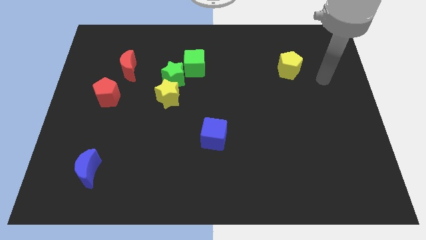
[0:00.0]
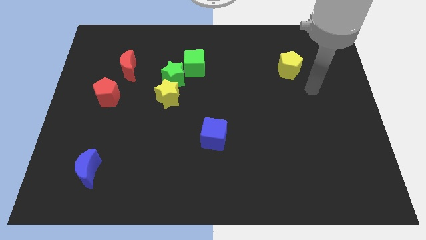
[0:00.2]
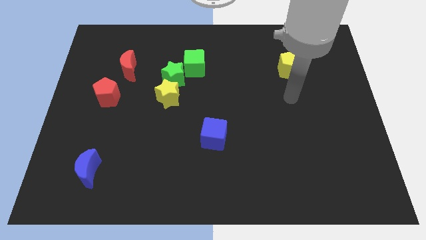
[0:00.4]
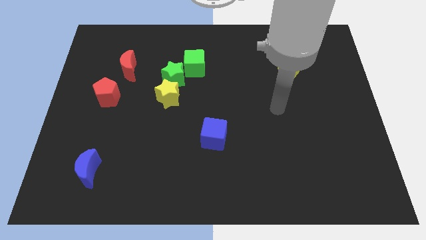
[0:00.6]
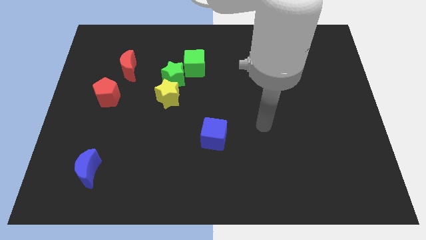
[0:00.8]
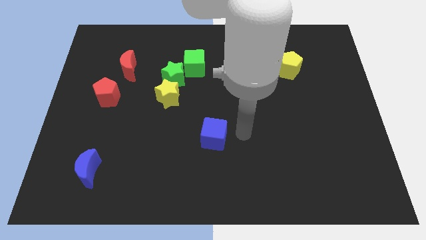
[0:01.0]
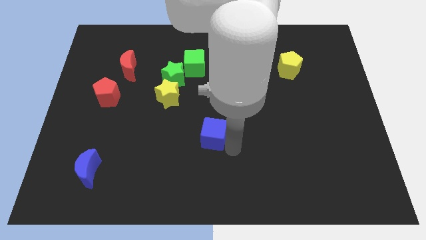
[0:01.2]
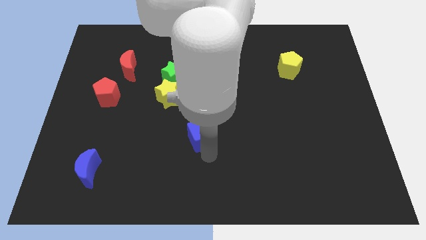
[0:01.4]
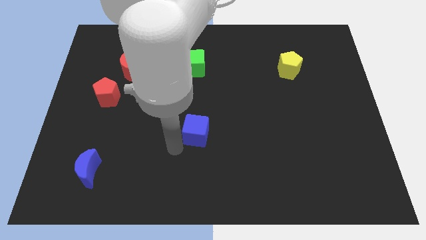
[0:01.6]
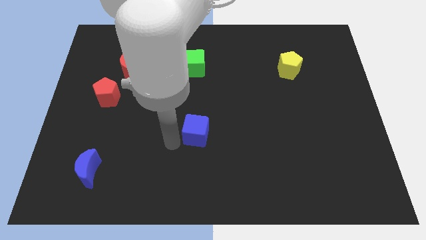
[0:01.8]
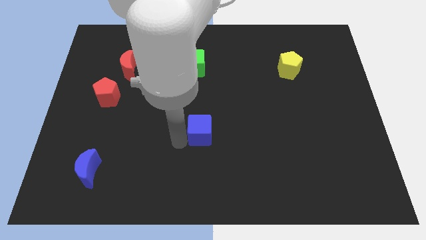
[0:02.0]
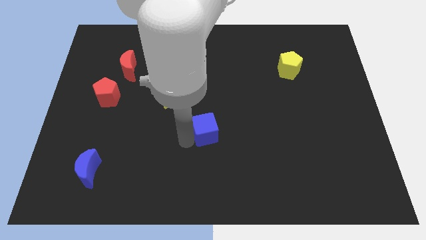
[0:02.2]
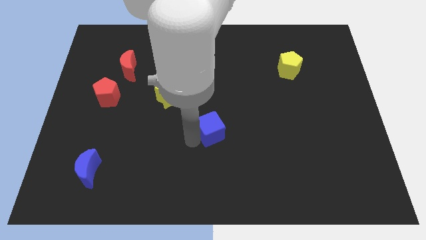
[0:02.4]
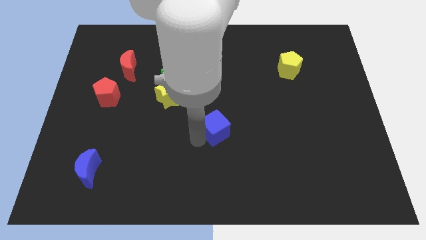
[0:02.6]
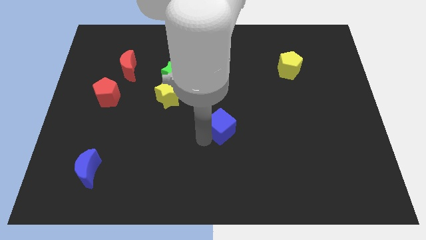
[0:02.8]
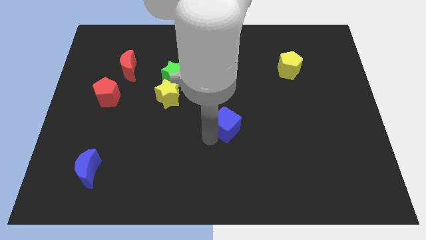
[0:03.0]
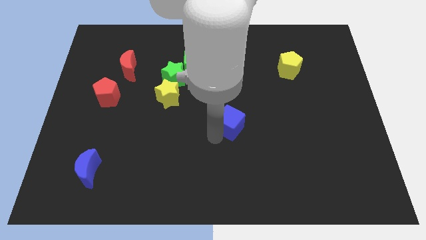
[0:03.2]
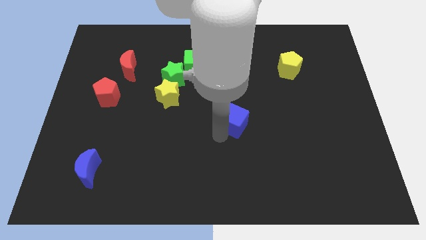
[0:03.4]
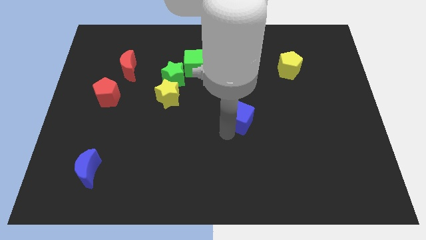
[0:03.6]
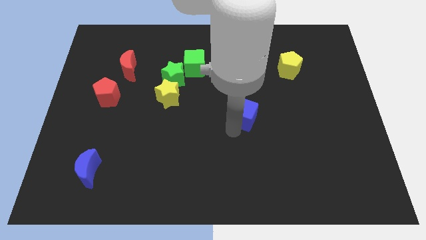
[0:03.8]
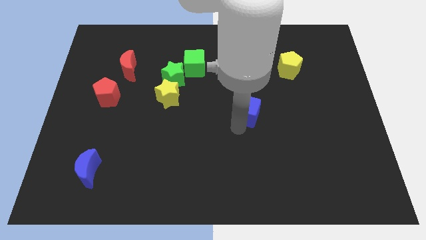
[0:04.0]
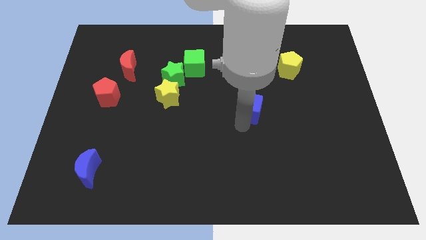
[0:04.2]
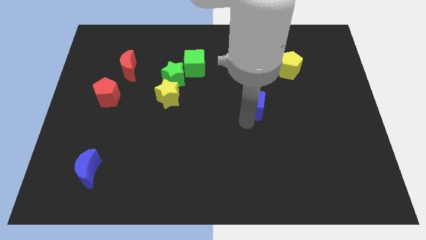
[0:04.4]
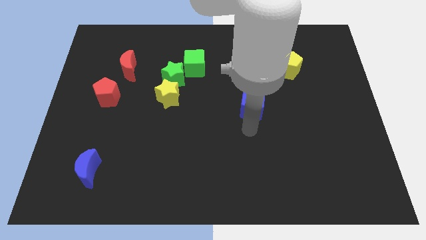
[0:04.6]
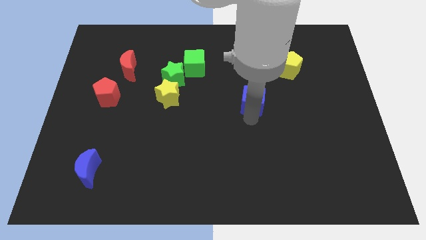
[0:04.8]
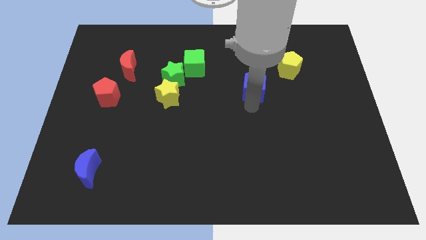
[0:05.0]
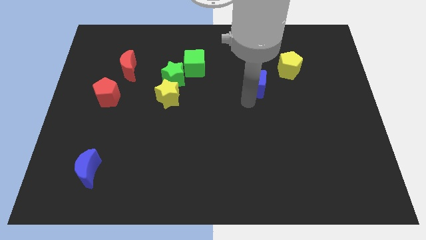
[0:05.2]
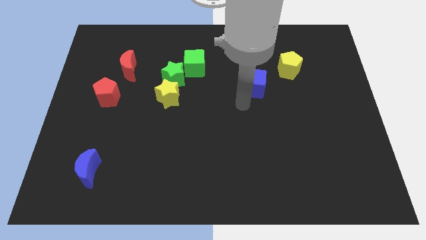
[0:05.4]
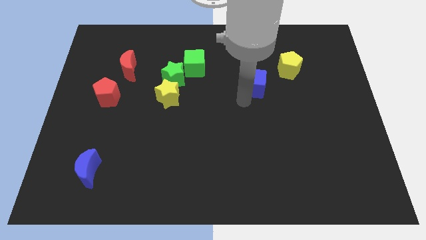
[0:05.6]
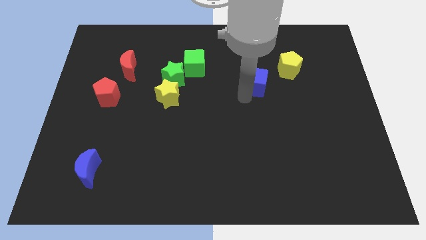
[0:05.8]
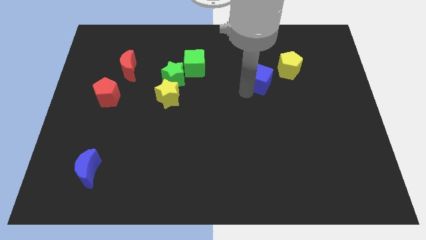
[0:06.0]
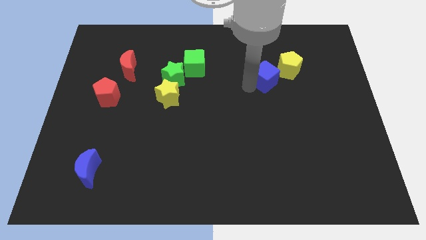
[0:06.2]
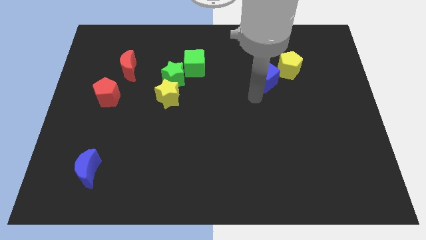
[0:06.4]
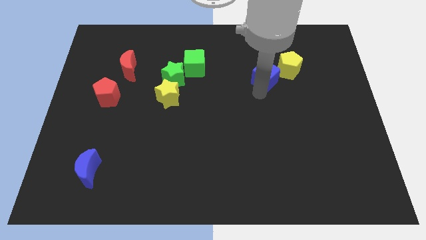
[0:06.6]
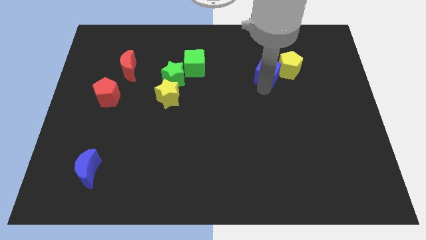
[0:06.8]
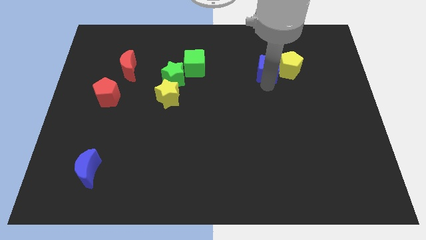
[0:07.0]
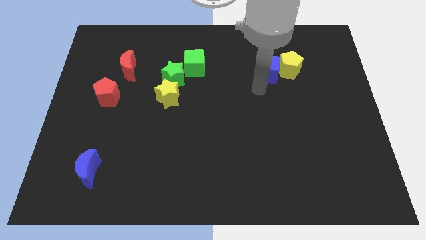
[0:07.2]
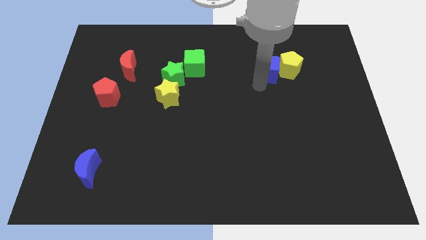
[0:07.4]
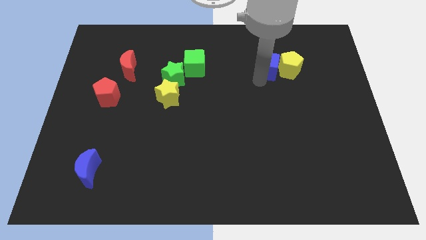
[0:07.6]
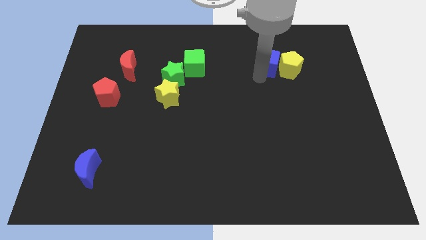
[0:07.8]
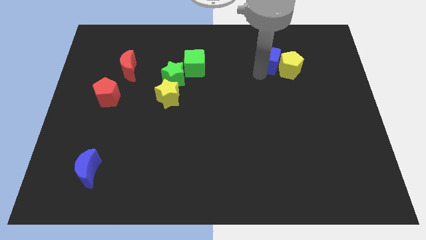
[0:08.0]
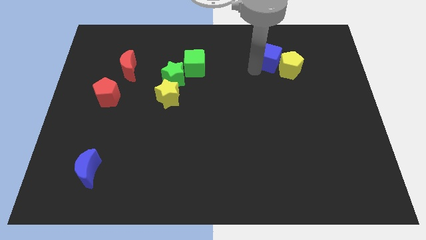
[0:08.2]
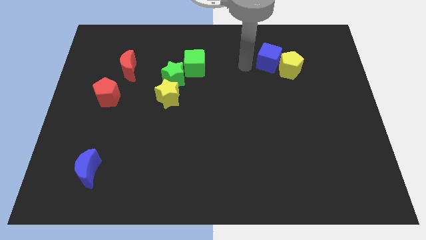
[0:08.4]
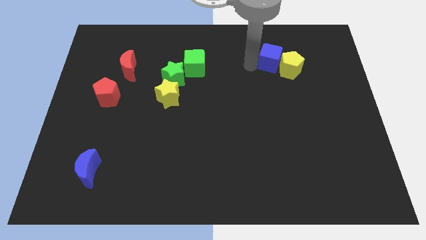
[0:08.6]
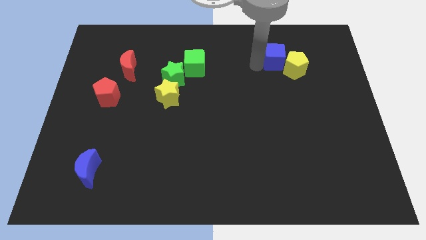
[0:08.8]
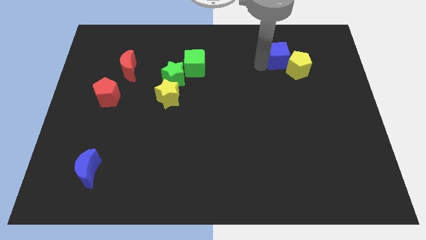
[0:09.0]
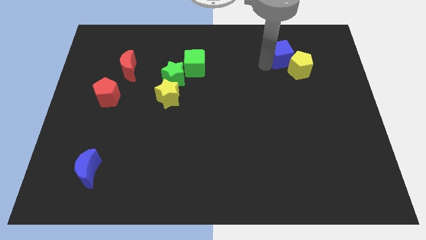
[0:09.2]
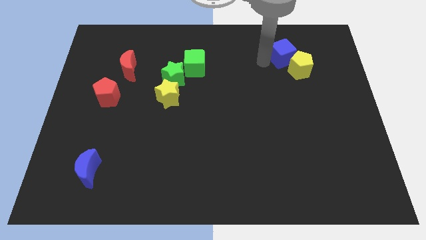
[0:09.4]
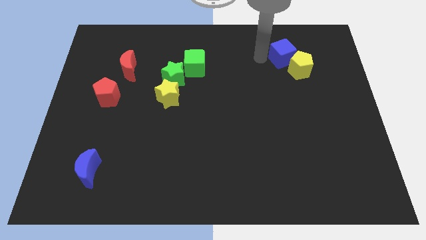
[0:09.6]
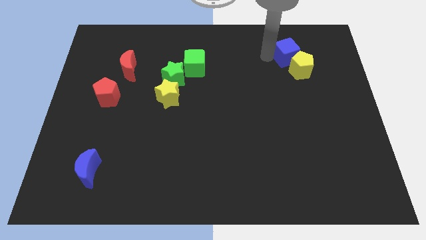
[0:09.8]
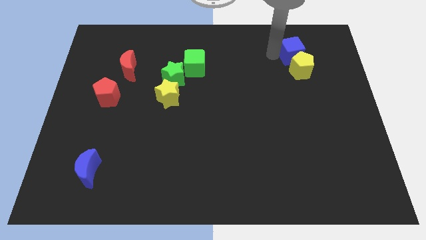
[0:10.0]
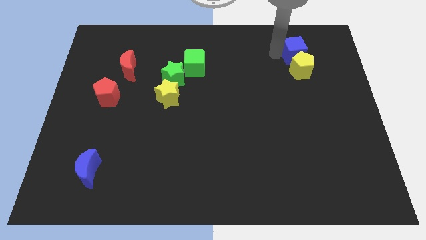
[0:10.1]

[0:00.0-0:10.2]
move the blue cube to the top right side of the yellow pentagon
